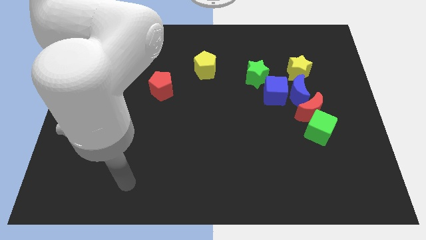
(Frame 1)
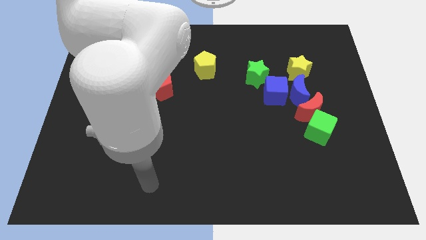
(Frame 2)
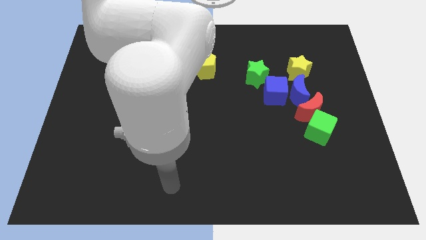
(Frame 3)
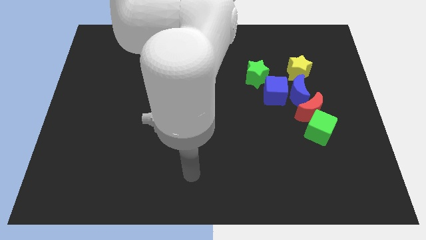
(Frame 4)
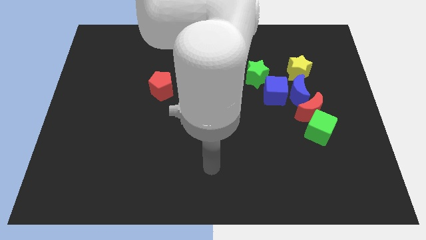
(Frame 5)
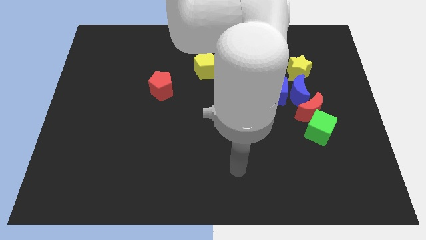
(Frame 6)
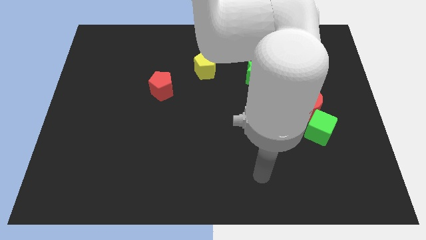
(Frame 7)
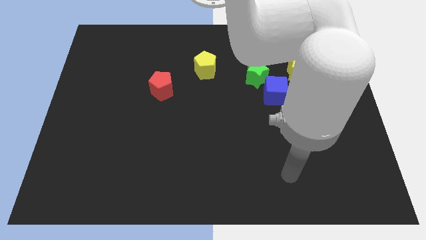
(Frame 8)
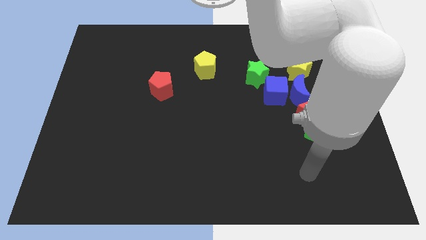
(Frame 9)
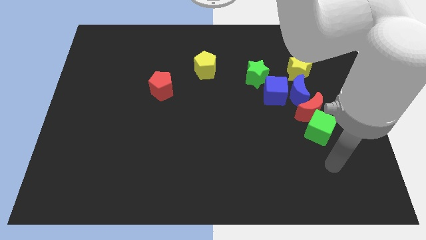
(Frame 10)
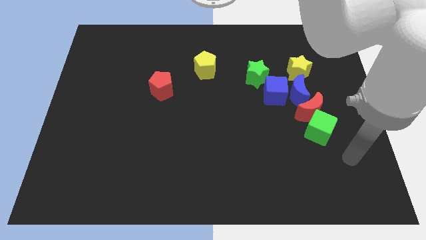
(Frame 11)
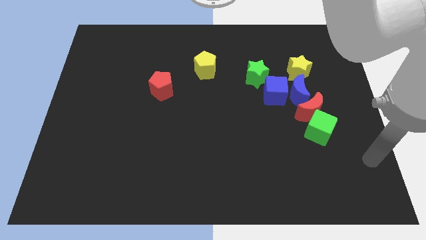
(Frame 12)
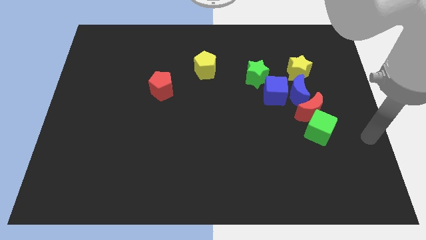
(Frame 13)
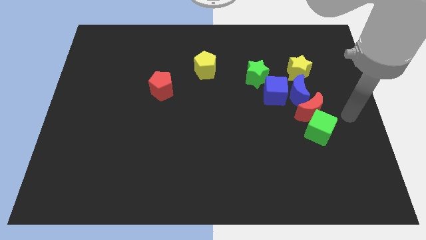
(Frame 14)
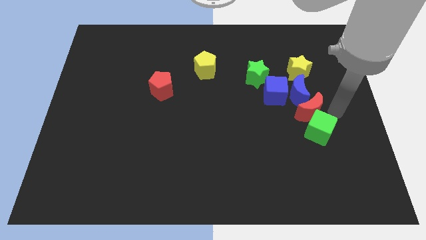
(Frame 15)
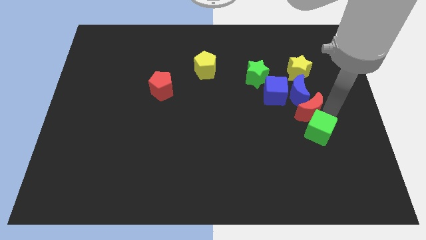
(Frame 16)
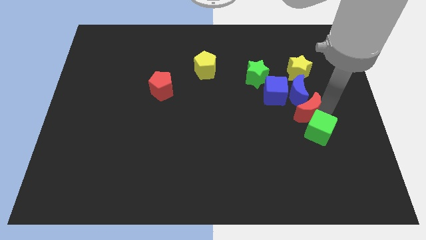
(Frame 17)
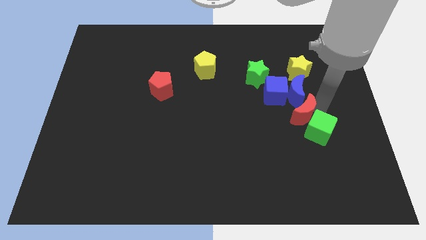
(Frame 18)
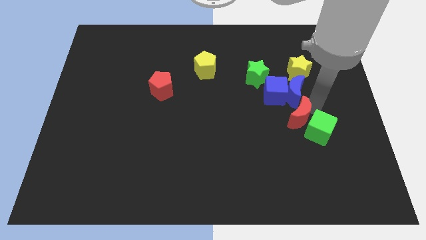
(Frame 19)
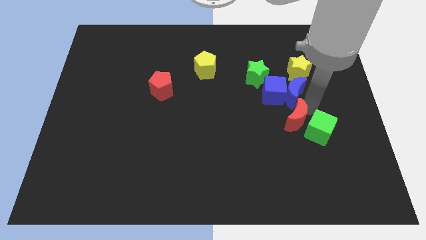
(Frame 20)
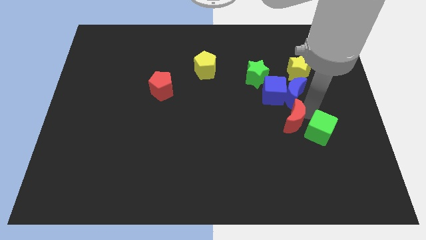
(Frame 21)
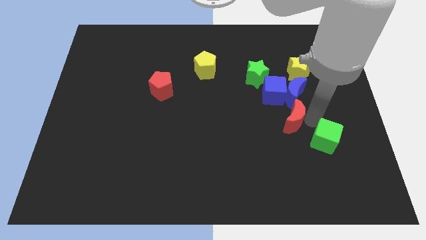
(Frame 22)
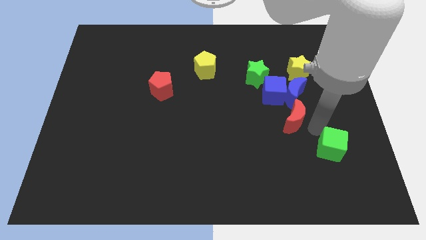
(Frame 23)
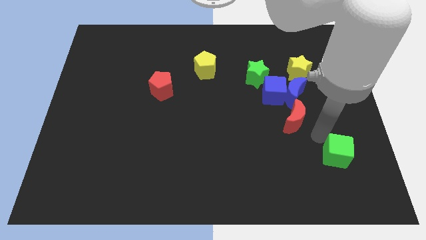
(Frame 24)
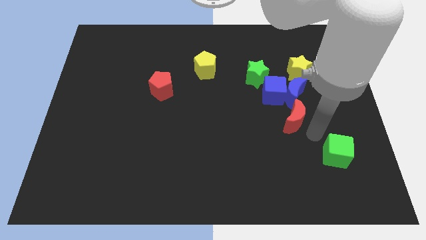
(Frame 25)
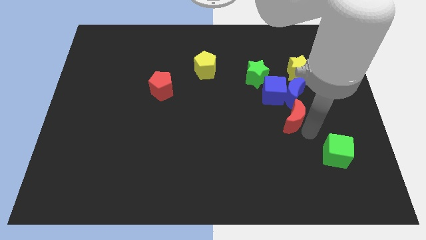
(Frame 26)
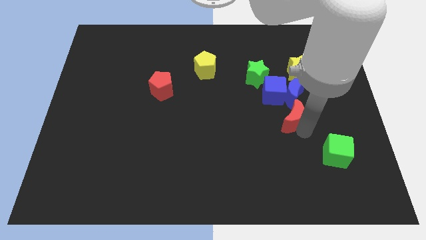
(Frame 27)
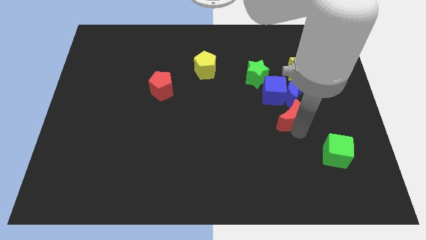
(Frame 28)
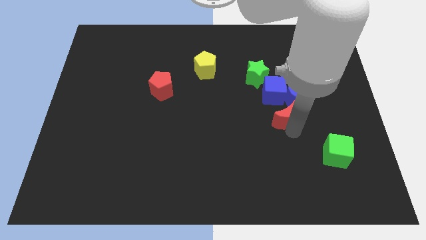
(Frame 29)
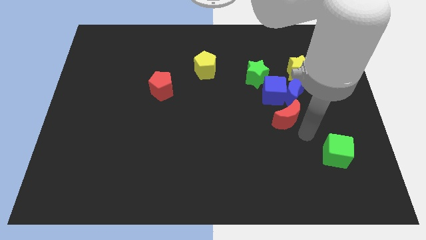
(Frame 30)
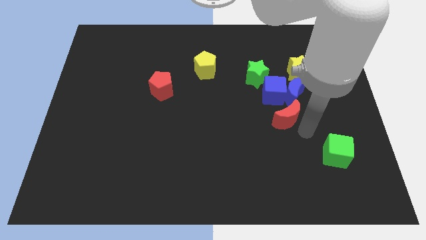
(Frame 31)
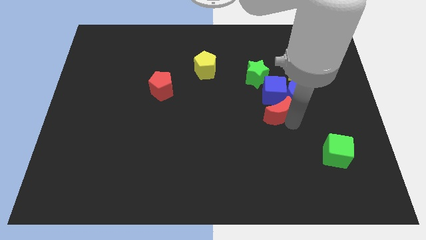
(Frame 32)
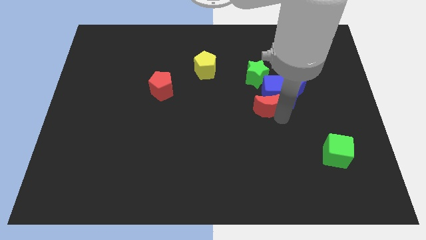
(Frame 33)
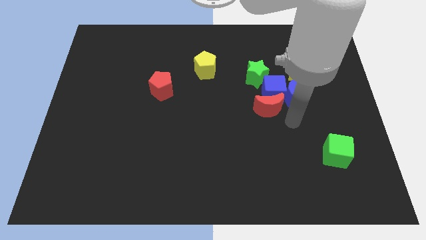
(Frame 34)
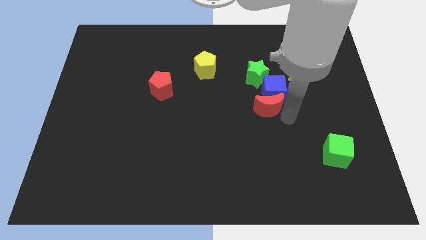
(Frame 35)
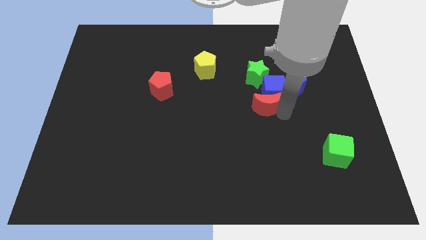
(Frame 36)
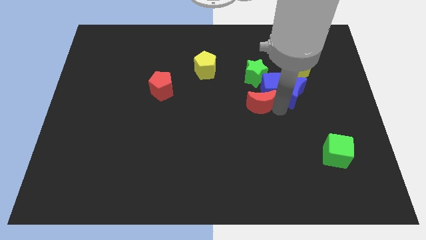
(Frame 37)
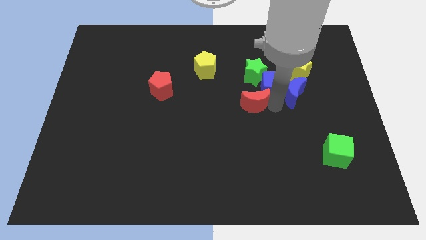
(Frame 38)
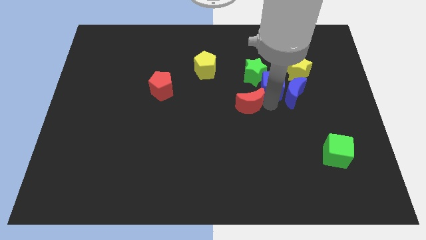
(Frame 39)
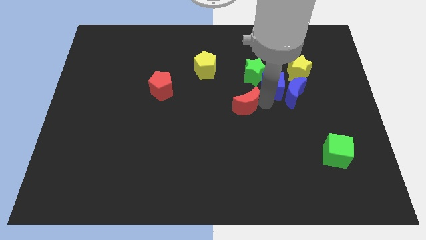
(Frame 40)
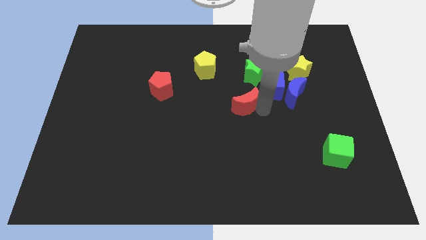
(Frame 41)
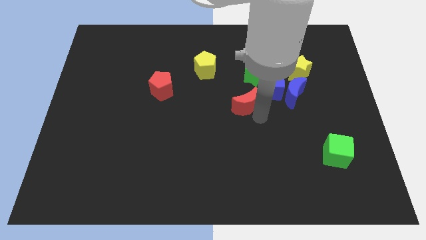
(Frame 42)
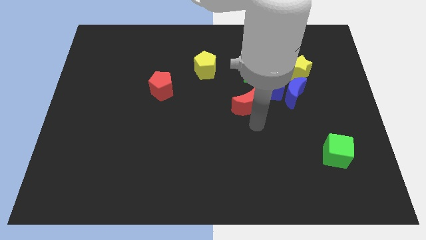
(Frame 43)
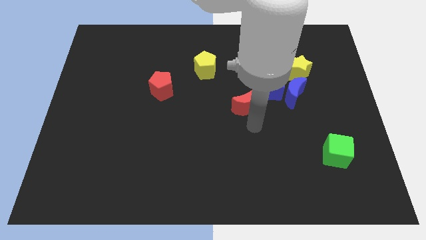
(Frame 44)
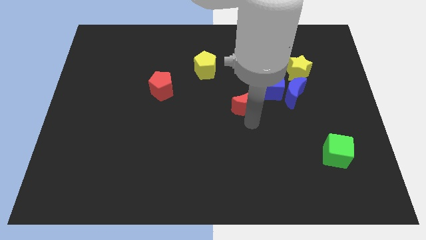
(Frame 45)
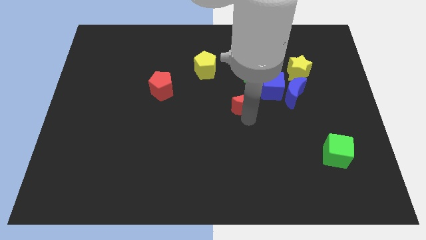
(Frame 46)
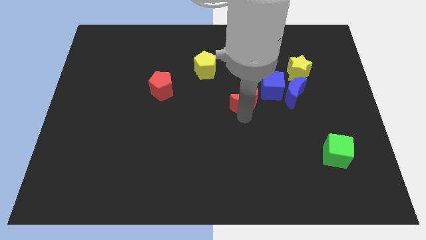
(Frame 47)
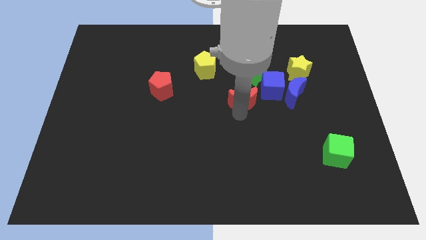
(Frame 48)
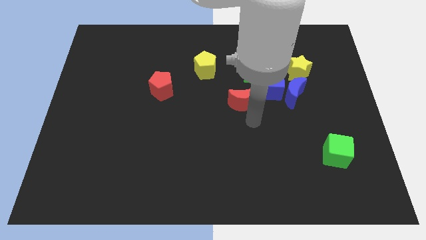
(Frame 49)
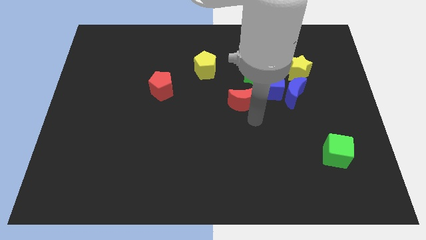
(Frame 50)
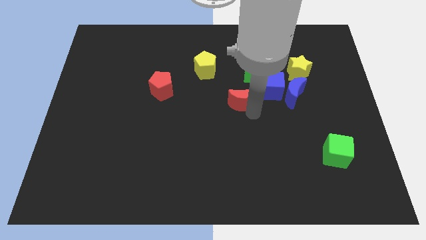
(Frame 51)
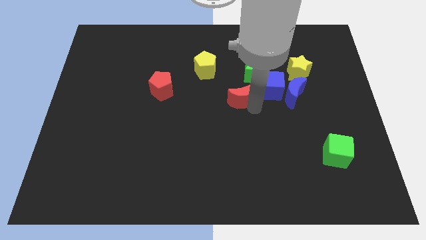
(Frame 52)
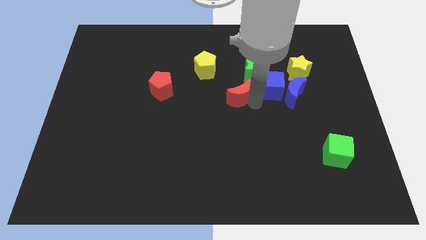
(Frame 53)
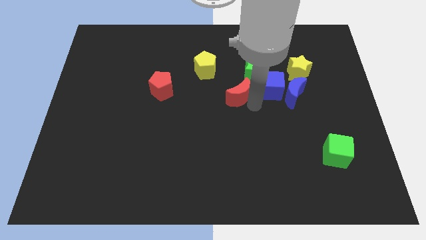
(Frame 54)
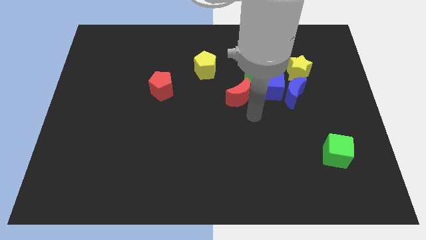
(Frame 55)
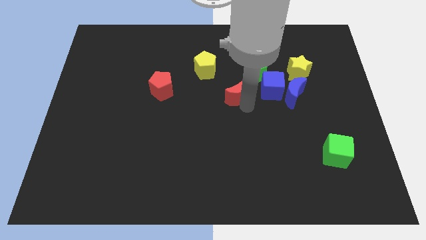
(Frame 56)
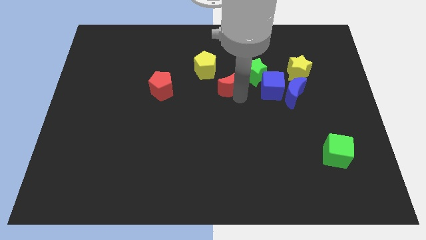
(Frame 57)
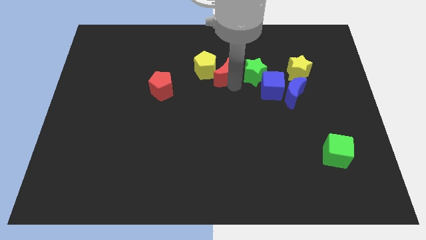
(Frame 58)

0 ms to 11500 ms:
put the red moon to the yellow pentagon
